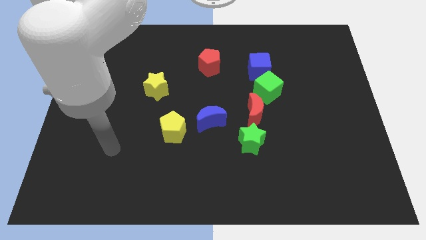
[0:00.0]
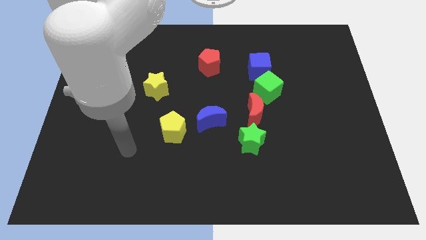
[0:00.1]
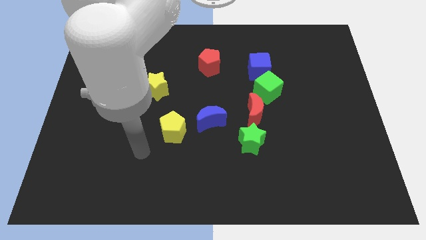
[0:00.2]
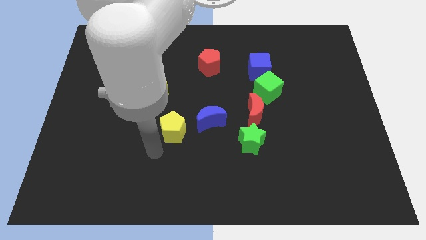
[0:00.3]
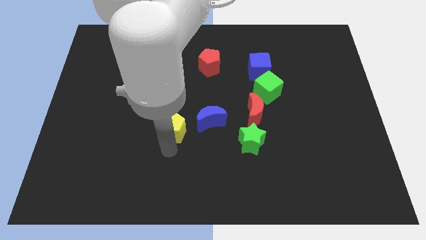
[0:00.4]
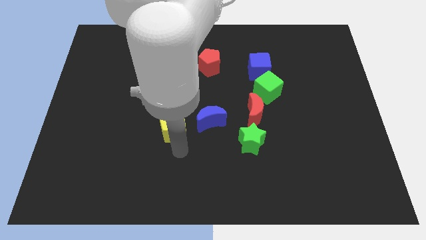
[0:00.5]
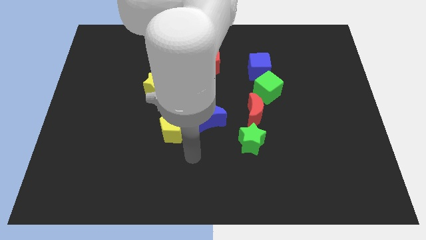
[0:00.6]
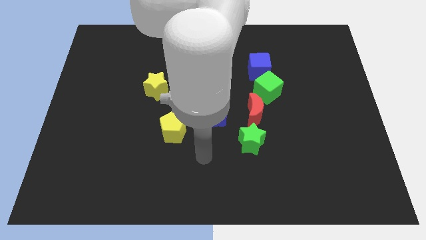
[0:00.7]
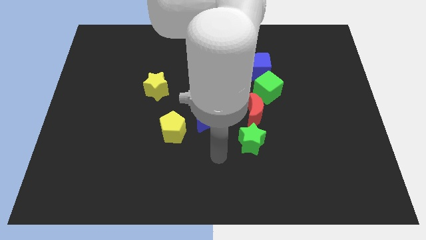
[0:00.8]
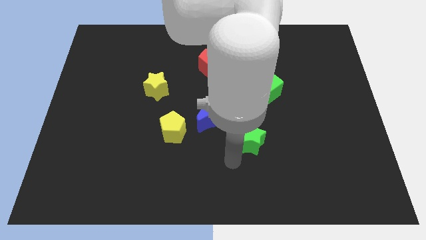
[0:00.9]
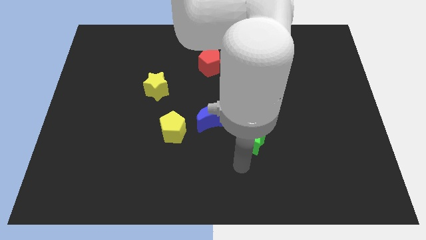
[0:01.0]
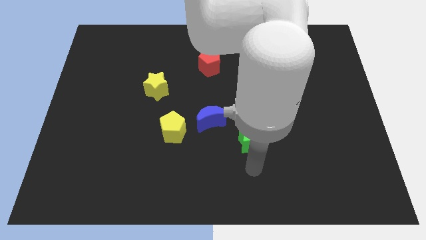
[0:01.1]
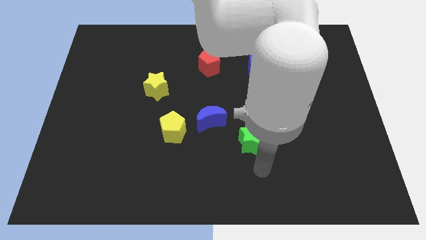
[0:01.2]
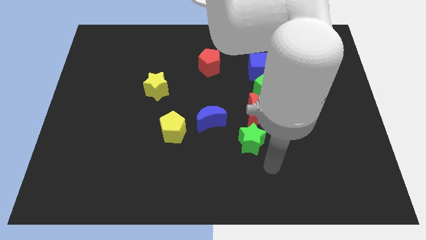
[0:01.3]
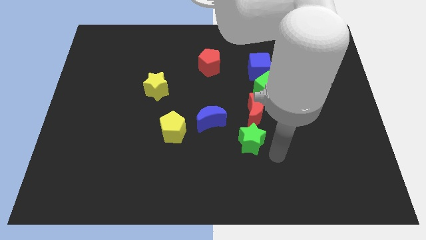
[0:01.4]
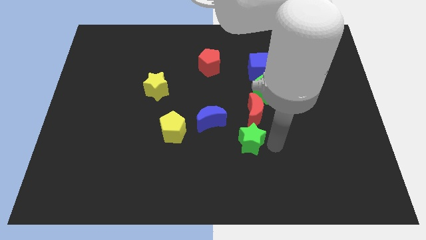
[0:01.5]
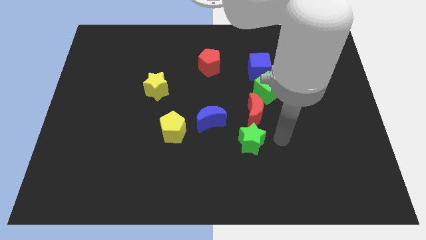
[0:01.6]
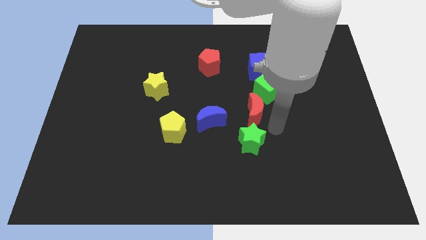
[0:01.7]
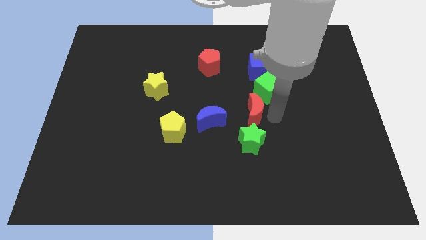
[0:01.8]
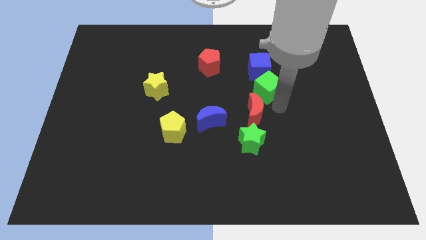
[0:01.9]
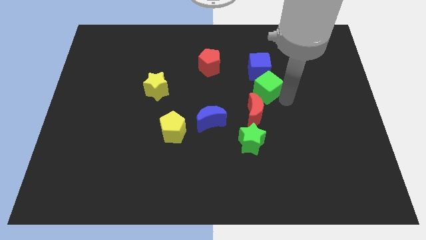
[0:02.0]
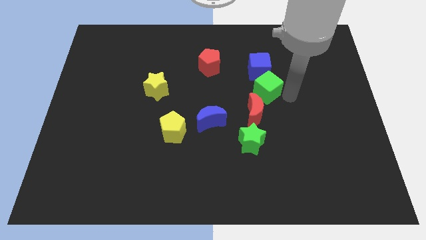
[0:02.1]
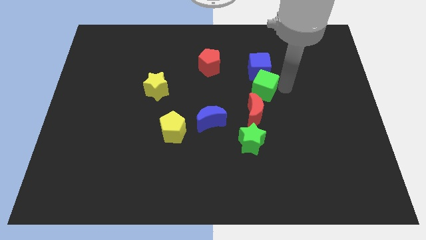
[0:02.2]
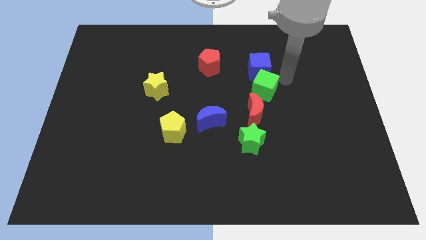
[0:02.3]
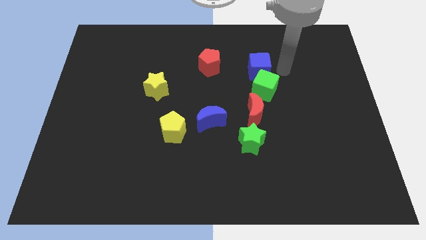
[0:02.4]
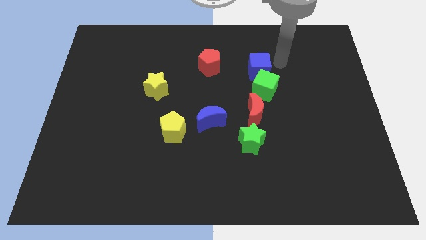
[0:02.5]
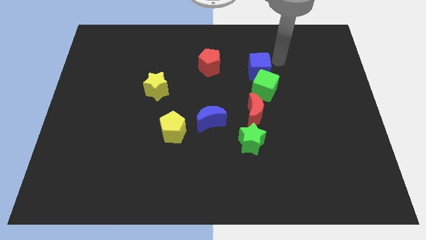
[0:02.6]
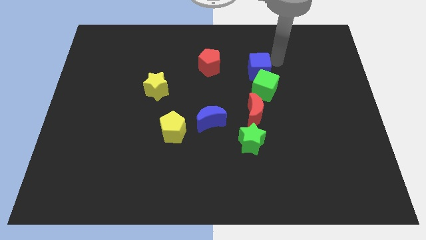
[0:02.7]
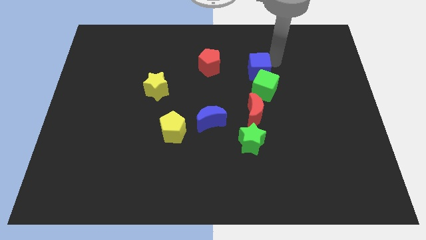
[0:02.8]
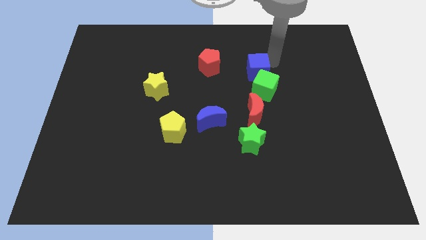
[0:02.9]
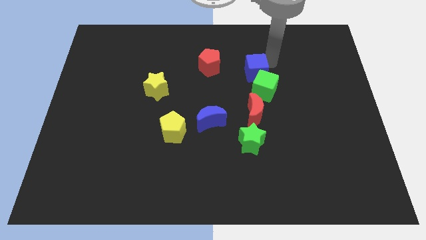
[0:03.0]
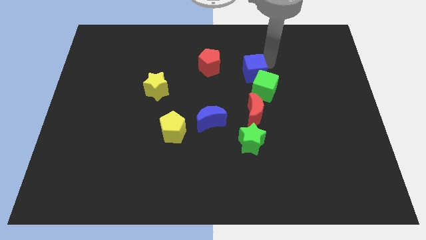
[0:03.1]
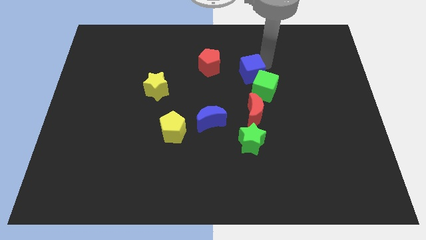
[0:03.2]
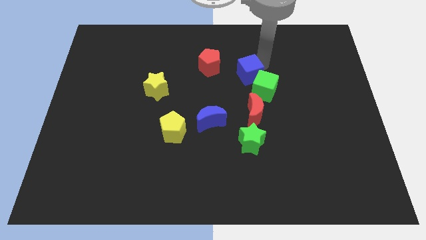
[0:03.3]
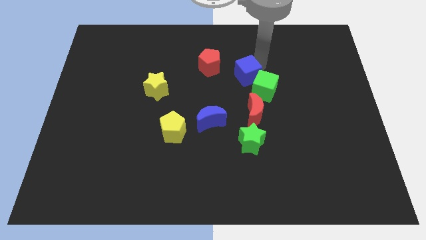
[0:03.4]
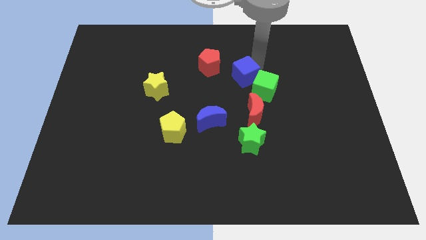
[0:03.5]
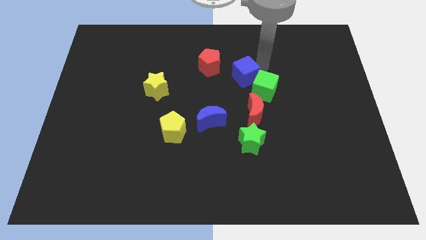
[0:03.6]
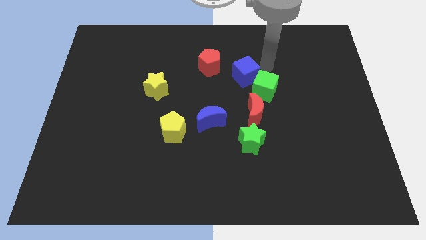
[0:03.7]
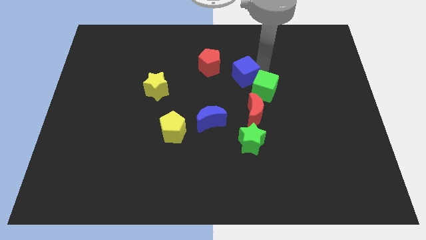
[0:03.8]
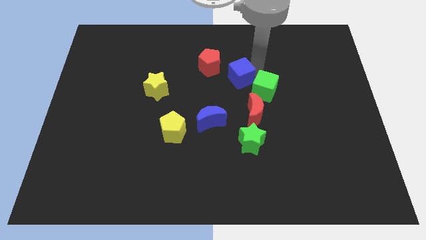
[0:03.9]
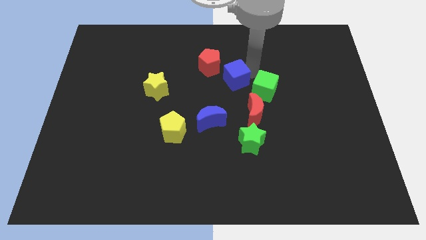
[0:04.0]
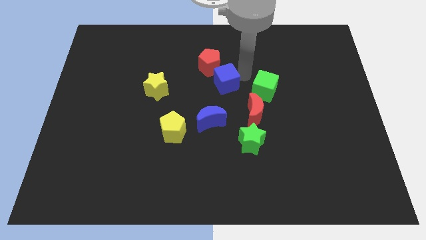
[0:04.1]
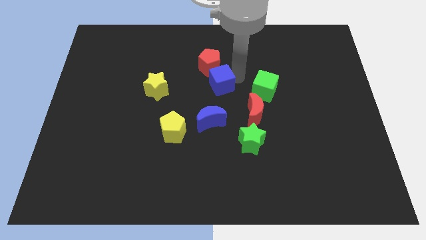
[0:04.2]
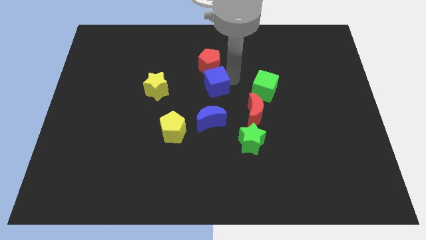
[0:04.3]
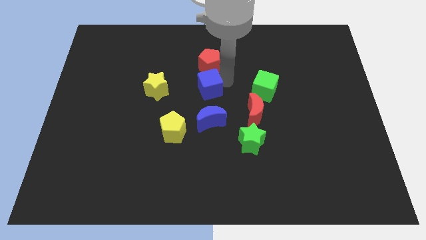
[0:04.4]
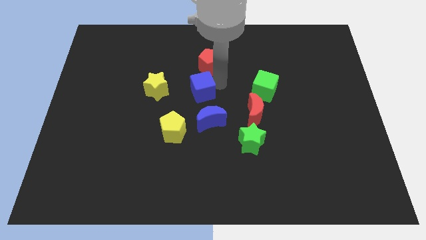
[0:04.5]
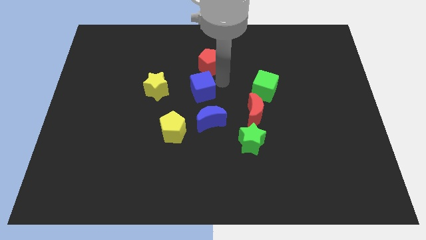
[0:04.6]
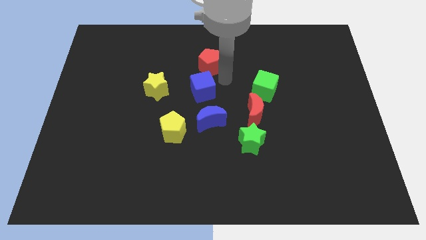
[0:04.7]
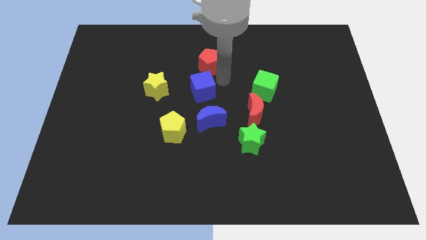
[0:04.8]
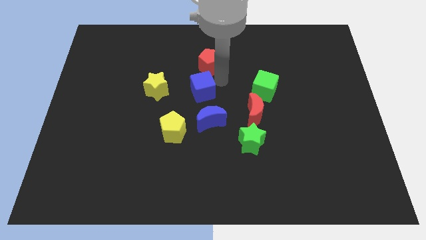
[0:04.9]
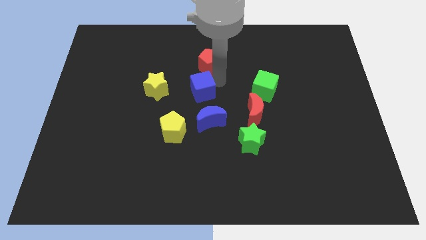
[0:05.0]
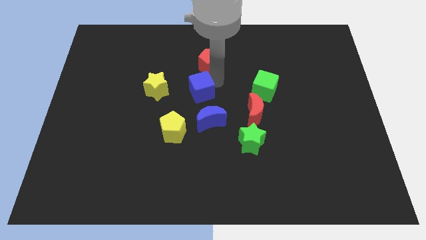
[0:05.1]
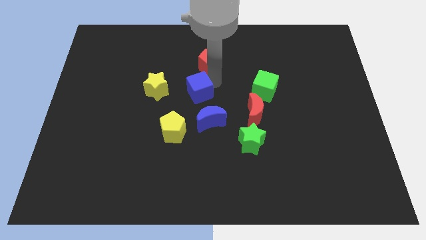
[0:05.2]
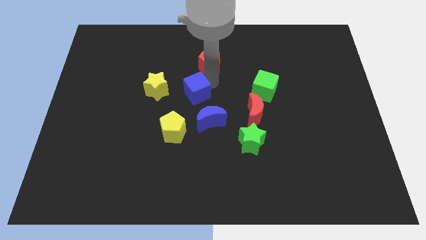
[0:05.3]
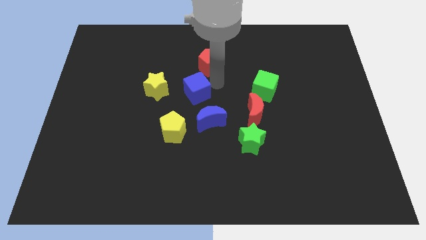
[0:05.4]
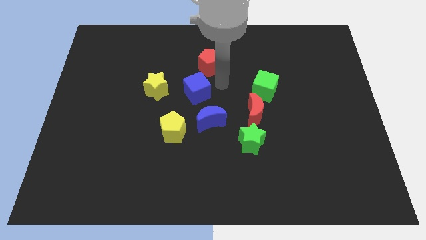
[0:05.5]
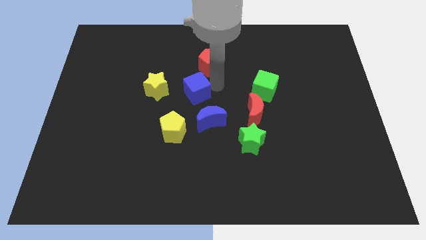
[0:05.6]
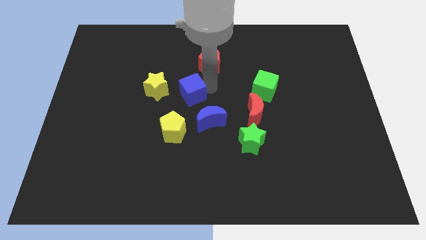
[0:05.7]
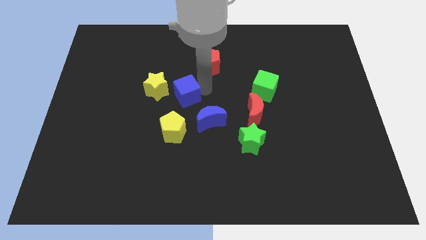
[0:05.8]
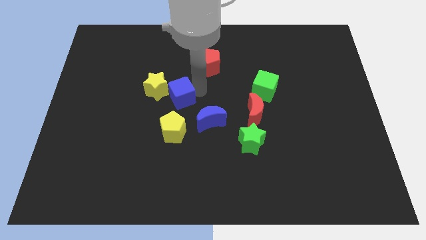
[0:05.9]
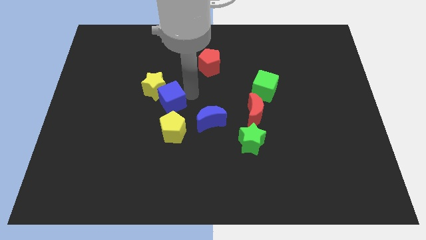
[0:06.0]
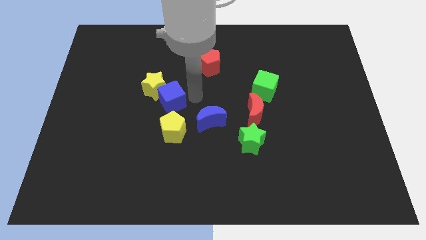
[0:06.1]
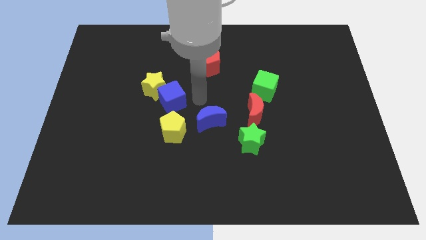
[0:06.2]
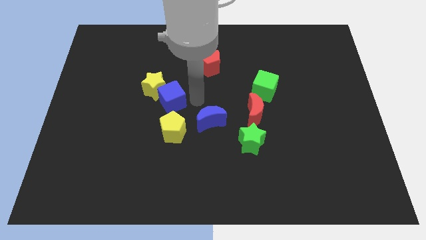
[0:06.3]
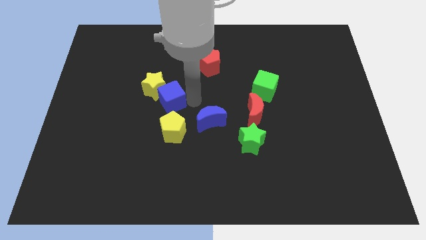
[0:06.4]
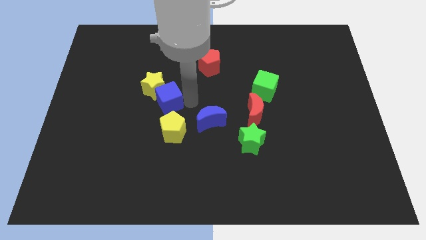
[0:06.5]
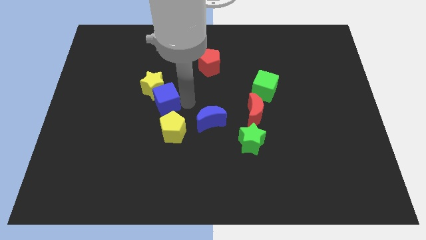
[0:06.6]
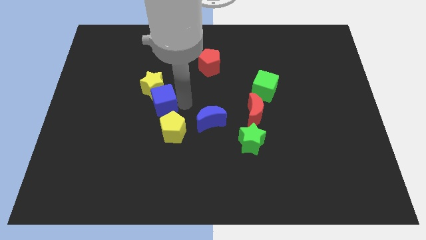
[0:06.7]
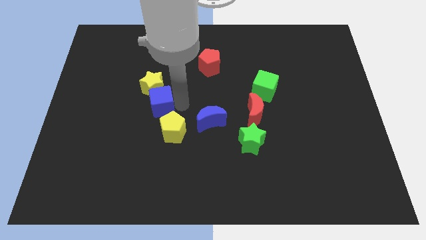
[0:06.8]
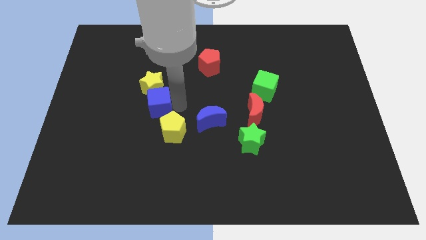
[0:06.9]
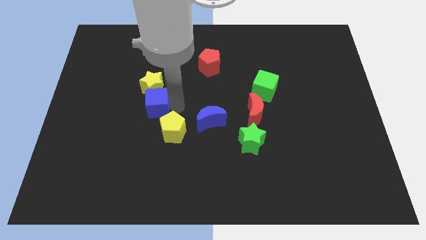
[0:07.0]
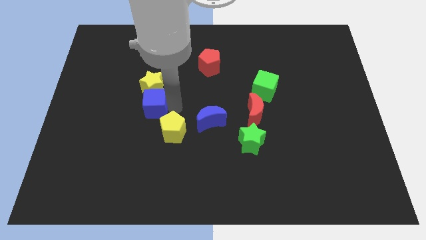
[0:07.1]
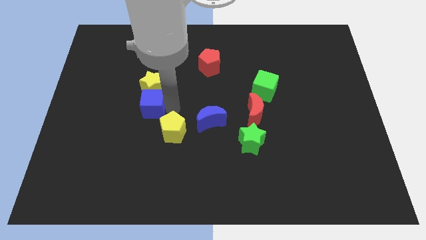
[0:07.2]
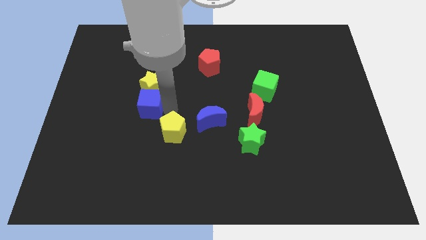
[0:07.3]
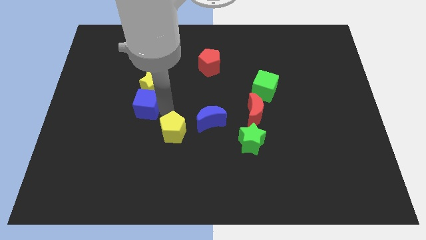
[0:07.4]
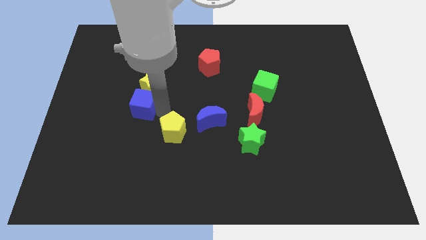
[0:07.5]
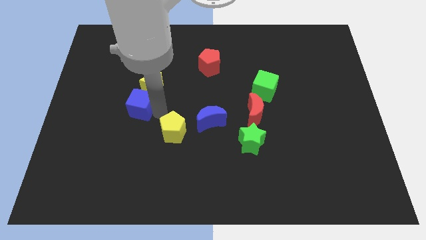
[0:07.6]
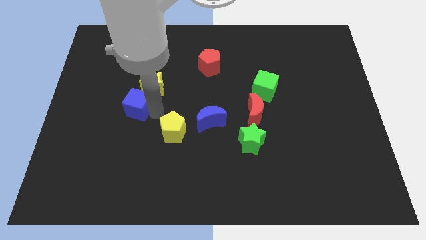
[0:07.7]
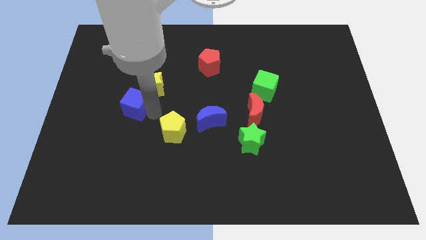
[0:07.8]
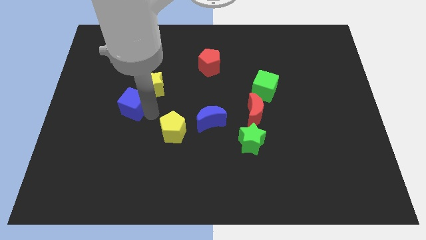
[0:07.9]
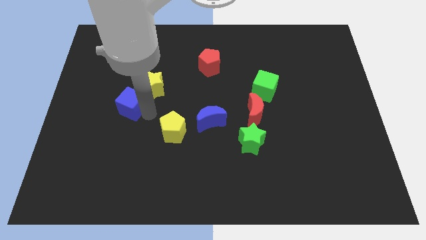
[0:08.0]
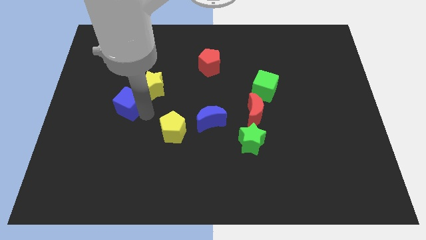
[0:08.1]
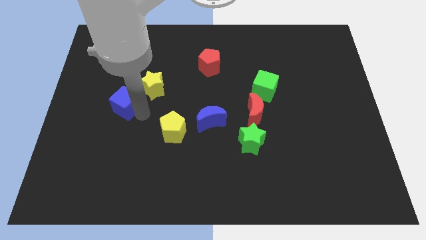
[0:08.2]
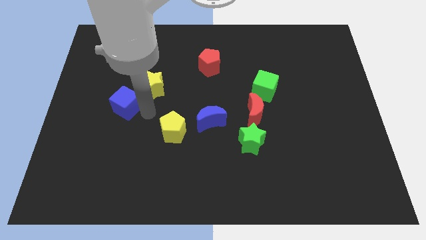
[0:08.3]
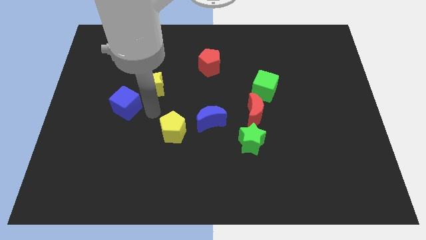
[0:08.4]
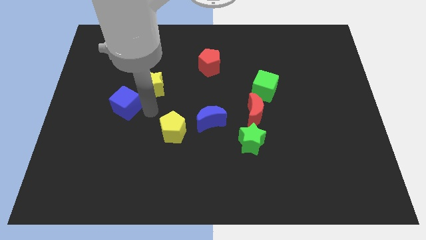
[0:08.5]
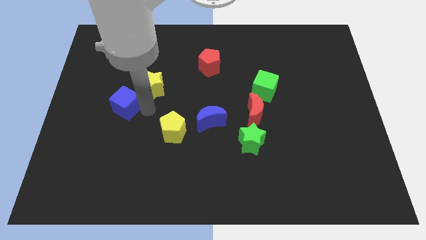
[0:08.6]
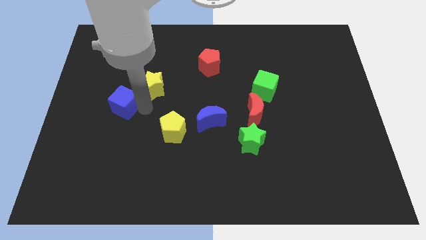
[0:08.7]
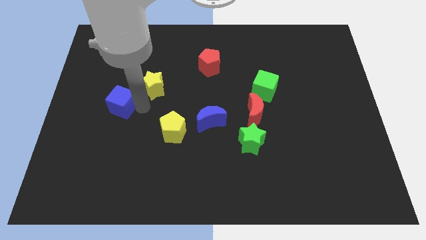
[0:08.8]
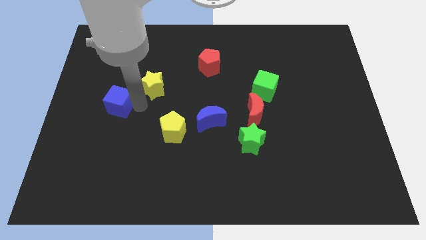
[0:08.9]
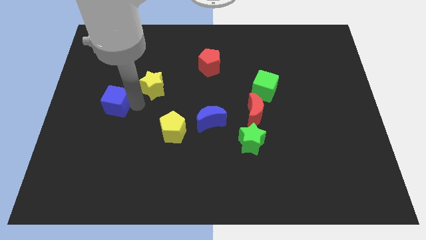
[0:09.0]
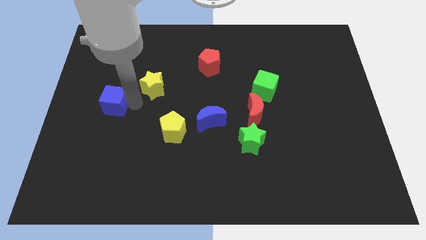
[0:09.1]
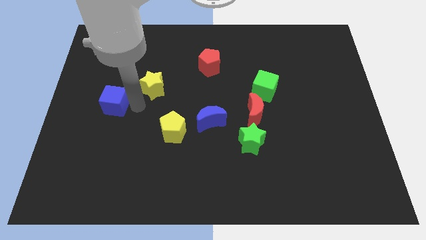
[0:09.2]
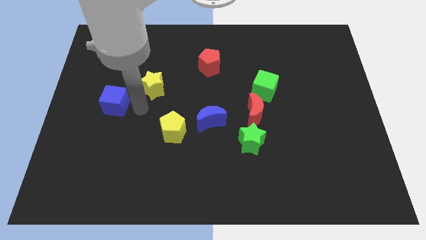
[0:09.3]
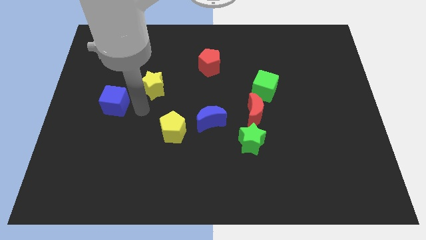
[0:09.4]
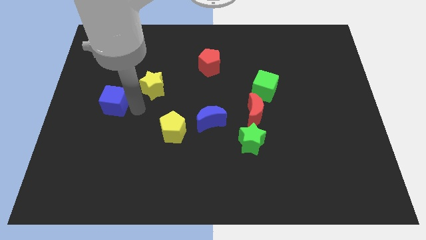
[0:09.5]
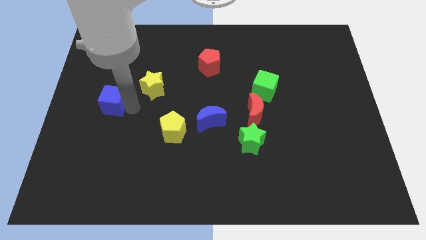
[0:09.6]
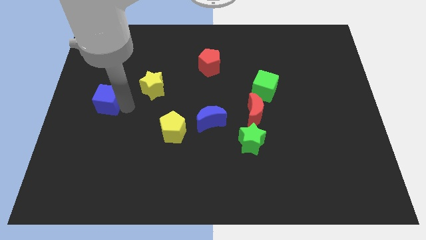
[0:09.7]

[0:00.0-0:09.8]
move the blue cube to the left side of the board
